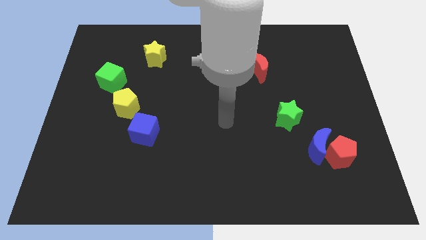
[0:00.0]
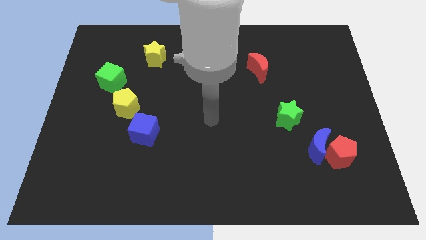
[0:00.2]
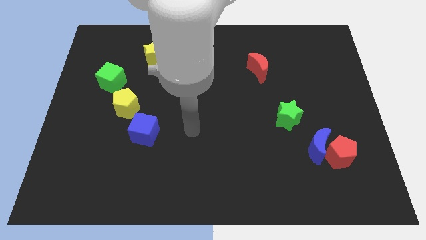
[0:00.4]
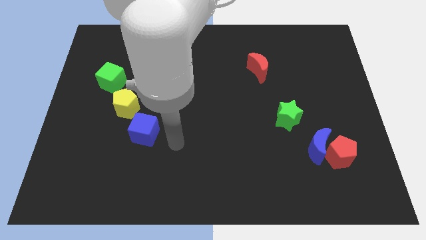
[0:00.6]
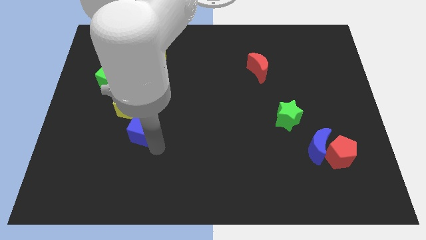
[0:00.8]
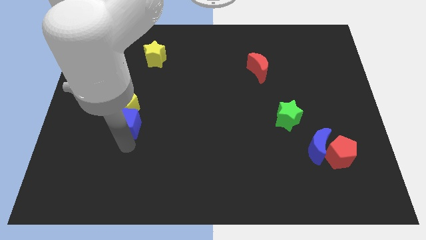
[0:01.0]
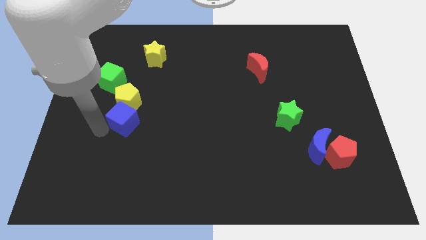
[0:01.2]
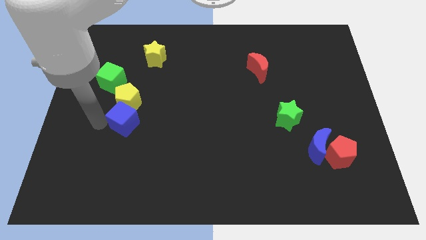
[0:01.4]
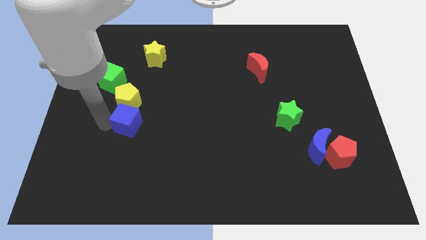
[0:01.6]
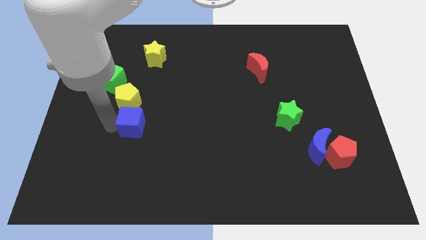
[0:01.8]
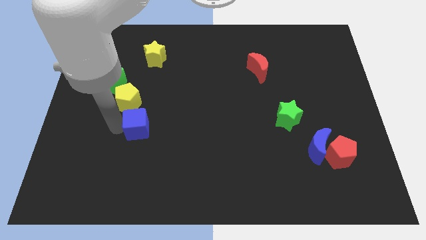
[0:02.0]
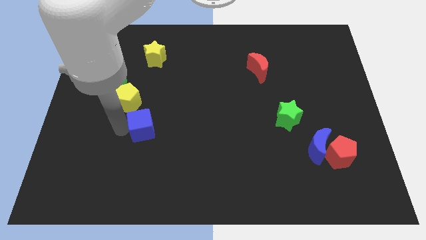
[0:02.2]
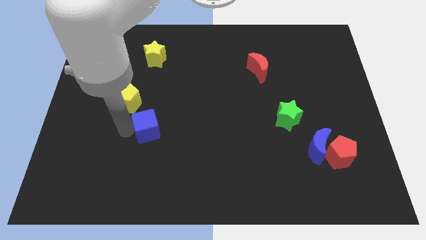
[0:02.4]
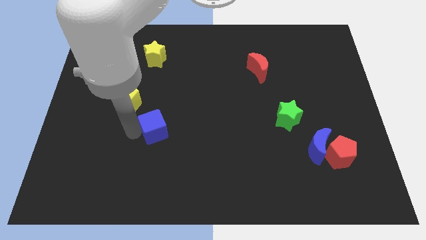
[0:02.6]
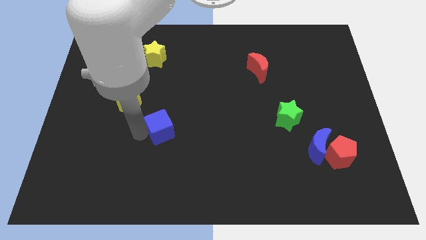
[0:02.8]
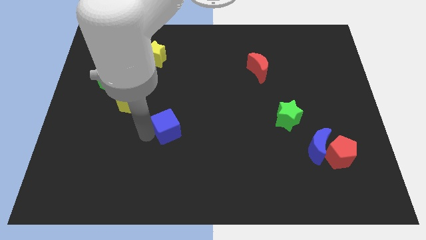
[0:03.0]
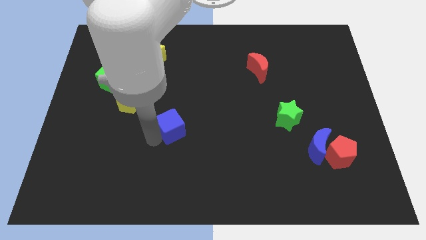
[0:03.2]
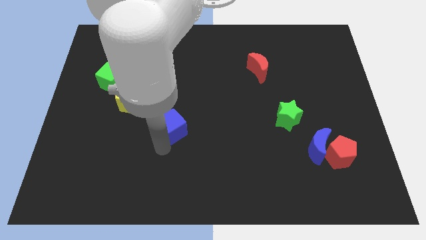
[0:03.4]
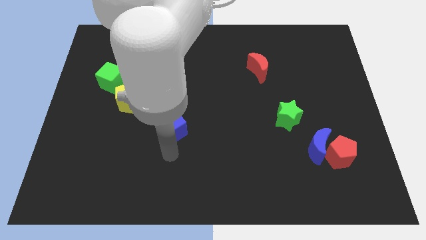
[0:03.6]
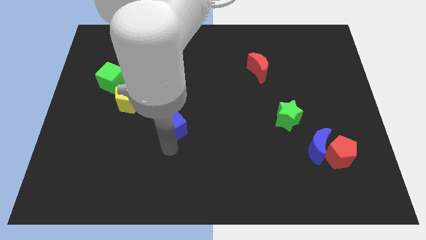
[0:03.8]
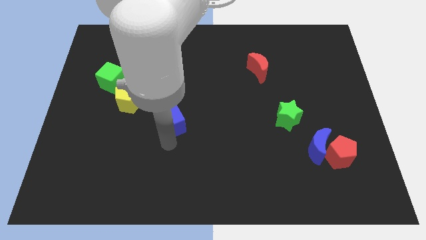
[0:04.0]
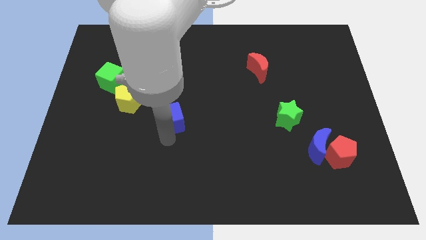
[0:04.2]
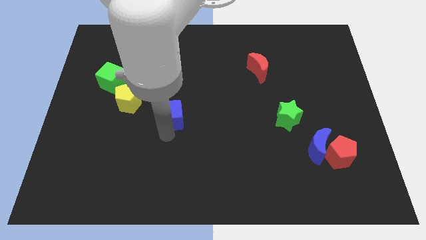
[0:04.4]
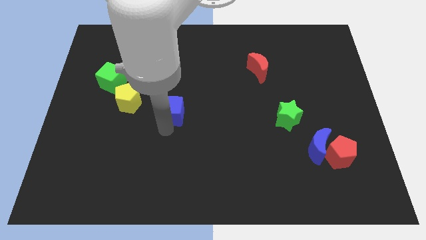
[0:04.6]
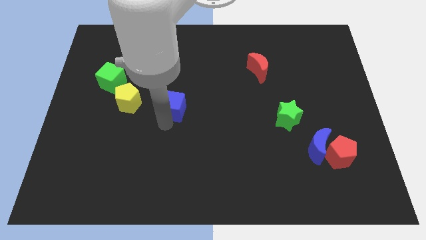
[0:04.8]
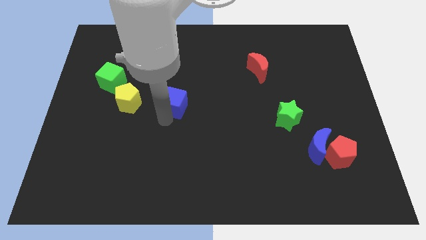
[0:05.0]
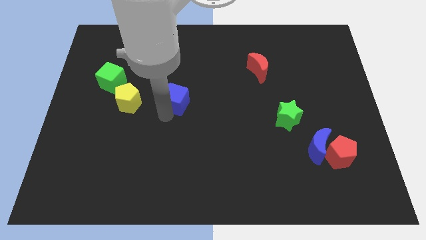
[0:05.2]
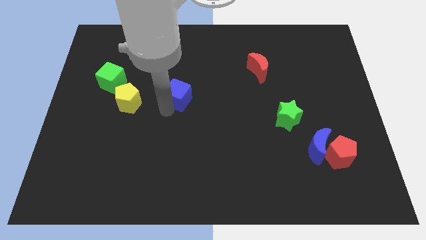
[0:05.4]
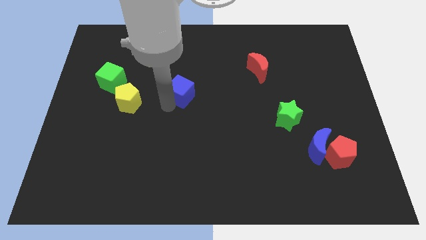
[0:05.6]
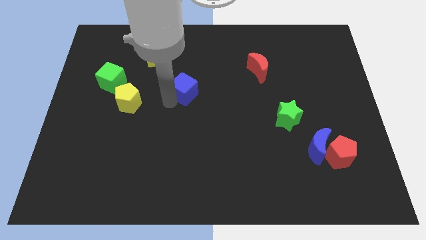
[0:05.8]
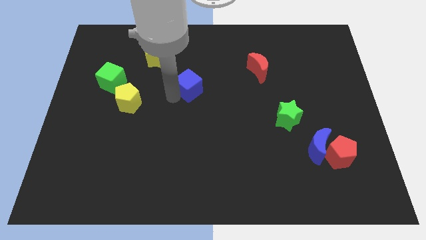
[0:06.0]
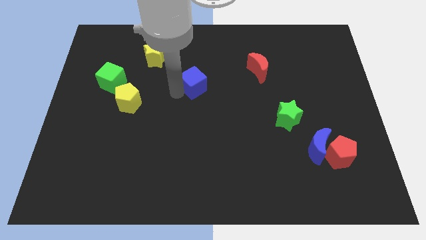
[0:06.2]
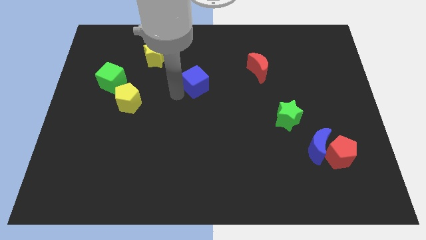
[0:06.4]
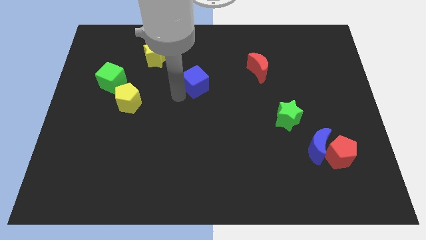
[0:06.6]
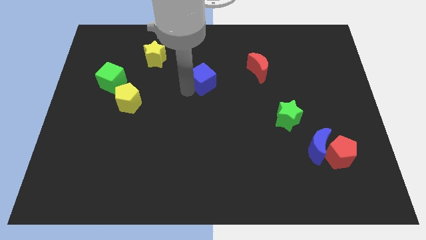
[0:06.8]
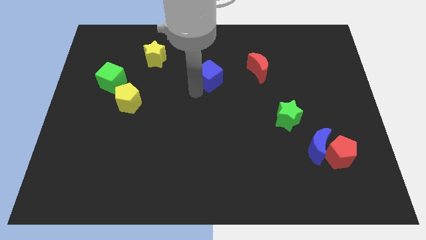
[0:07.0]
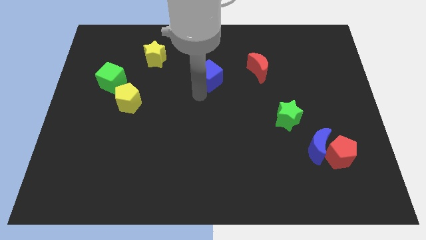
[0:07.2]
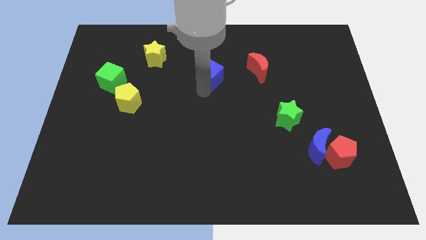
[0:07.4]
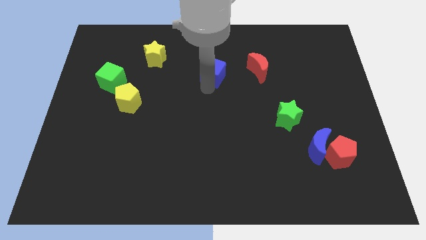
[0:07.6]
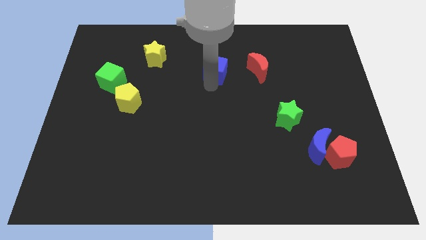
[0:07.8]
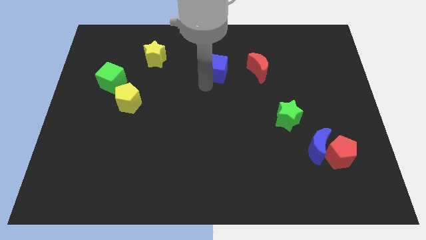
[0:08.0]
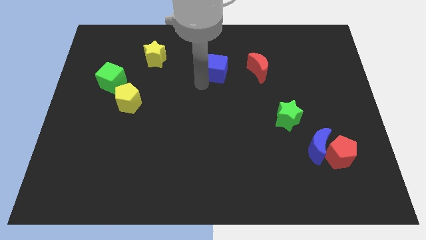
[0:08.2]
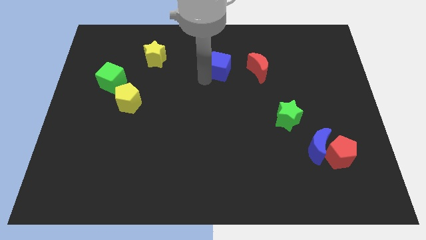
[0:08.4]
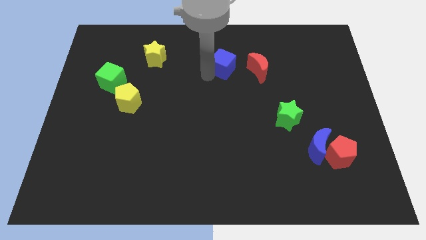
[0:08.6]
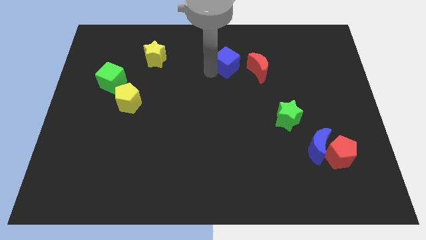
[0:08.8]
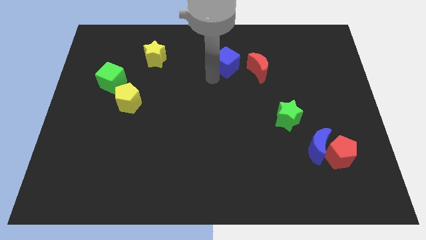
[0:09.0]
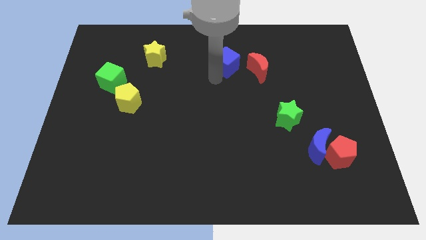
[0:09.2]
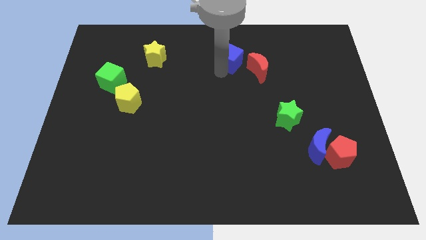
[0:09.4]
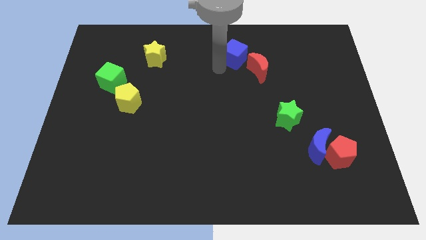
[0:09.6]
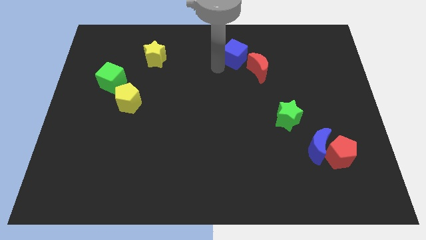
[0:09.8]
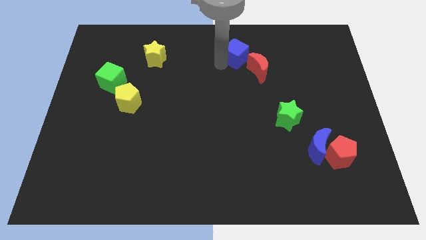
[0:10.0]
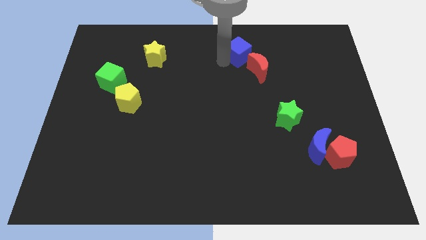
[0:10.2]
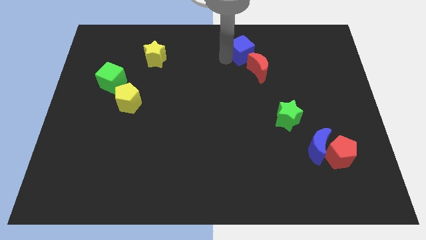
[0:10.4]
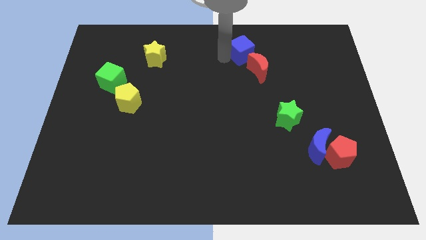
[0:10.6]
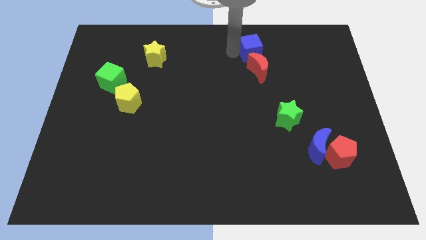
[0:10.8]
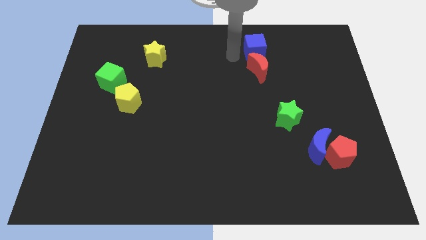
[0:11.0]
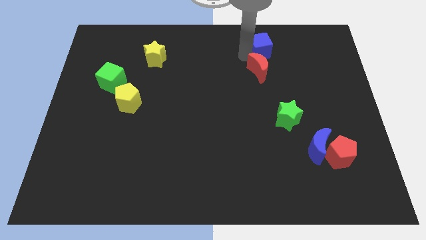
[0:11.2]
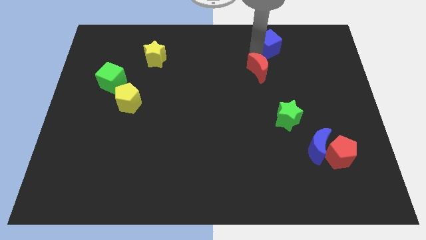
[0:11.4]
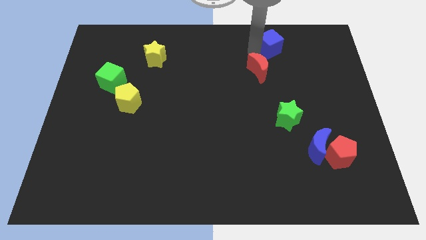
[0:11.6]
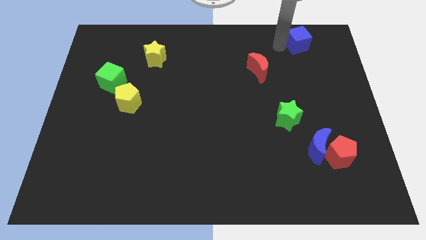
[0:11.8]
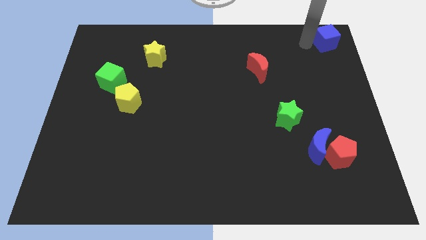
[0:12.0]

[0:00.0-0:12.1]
slide the blue cube to the top right corner
